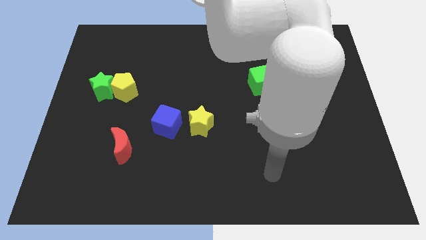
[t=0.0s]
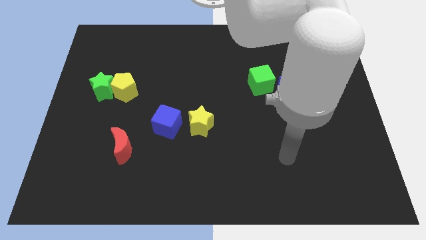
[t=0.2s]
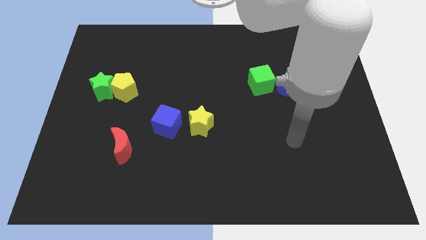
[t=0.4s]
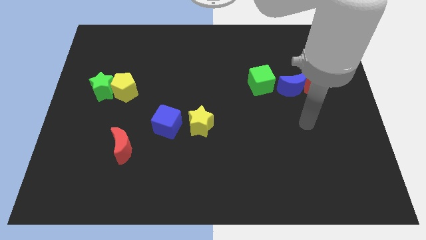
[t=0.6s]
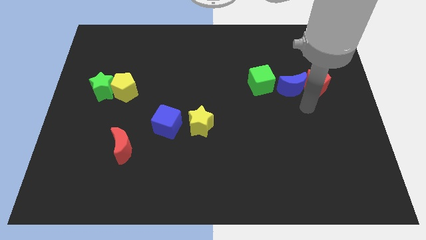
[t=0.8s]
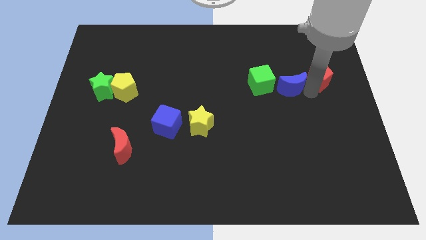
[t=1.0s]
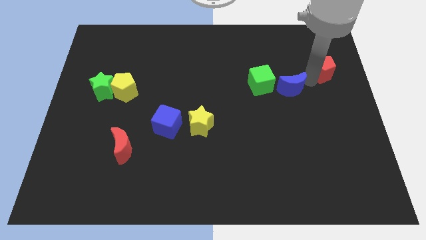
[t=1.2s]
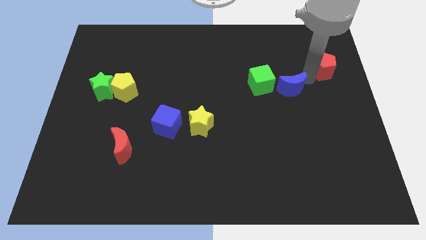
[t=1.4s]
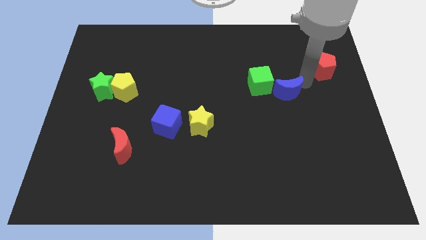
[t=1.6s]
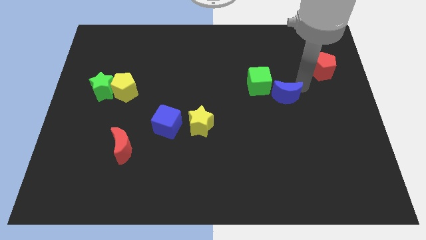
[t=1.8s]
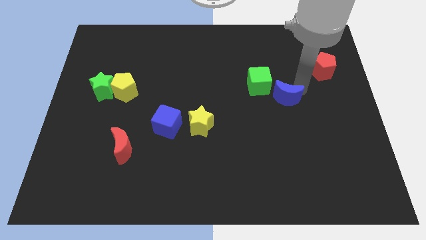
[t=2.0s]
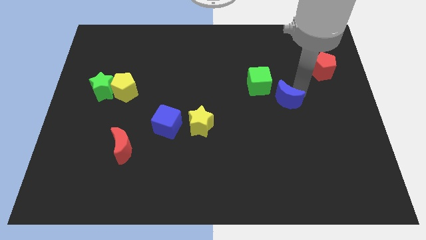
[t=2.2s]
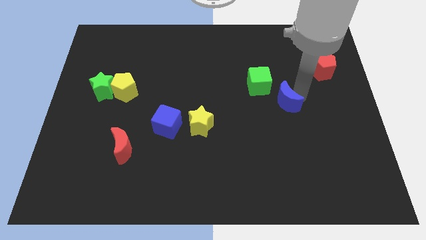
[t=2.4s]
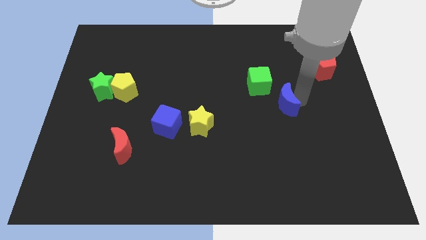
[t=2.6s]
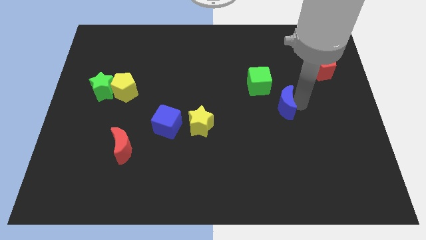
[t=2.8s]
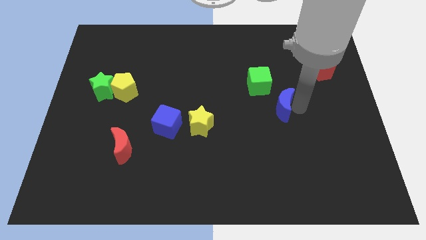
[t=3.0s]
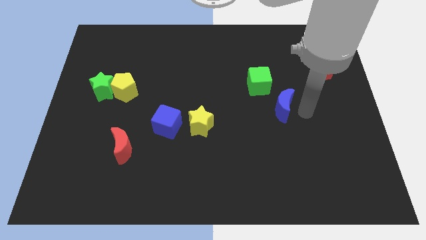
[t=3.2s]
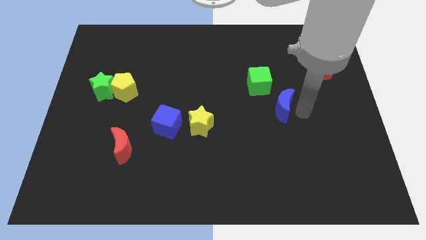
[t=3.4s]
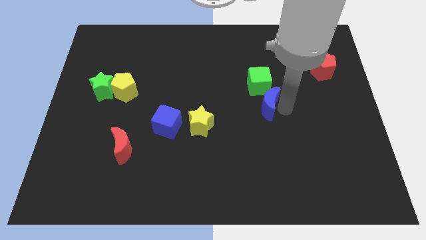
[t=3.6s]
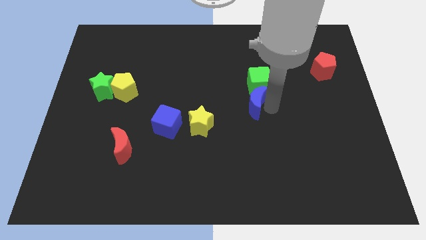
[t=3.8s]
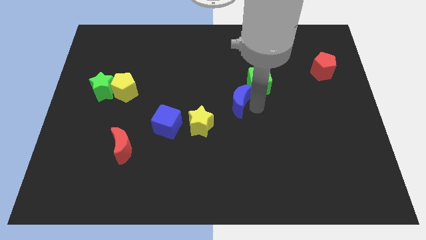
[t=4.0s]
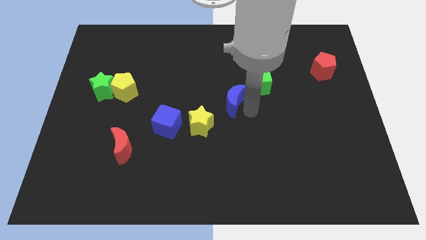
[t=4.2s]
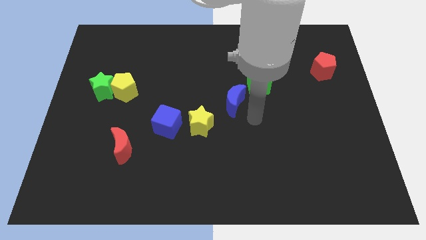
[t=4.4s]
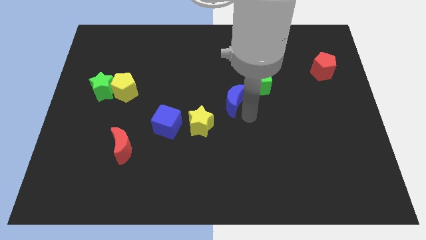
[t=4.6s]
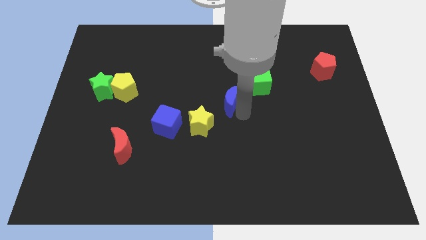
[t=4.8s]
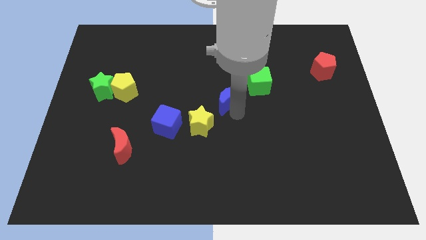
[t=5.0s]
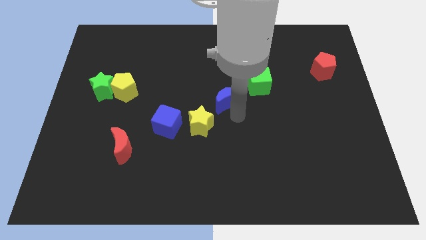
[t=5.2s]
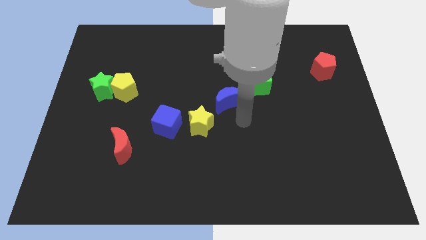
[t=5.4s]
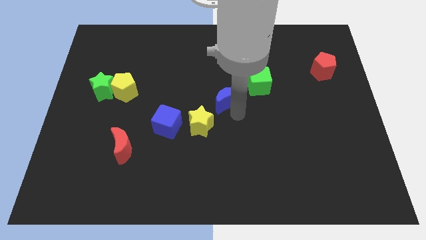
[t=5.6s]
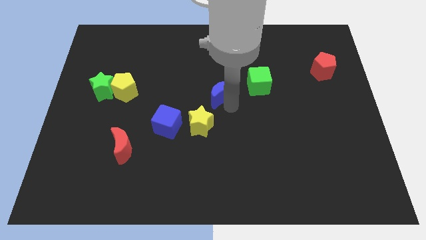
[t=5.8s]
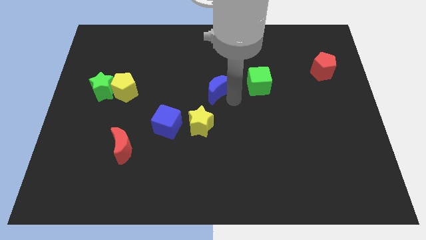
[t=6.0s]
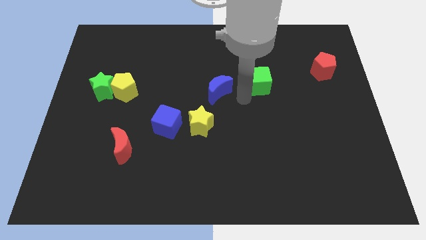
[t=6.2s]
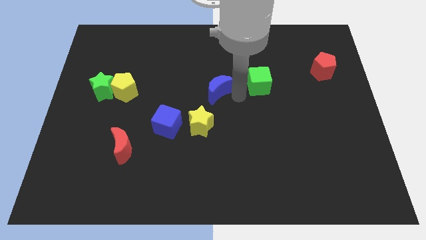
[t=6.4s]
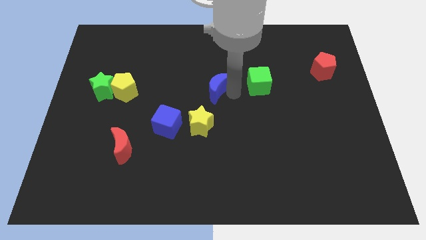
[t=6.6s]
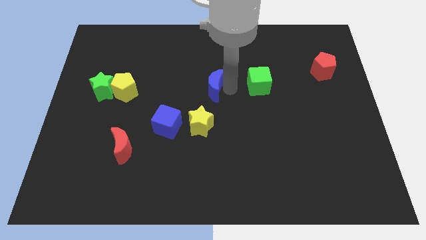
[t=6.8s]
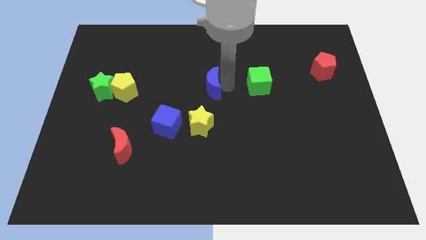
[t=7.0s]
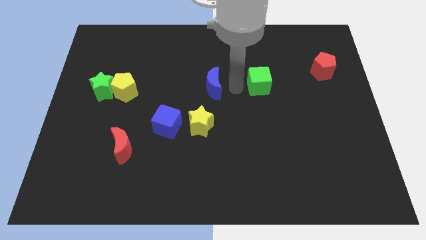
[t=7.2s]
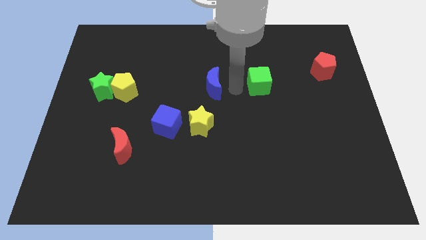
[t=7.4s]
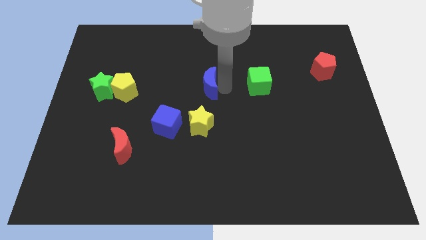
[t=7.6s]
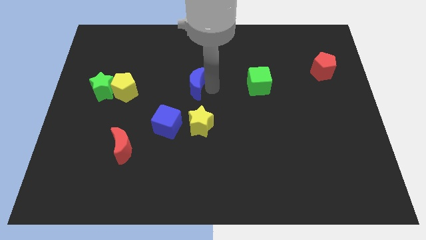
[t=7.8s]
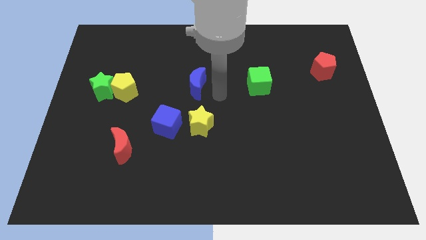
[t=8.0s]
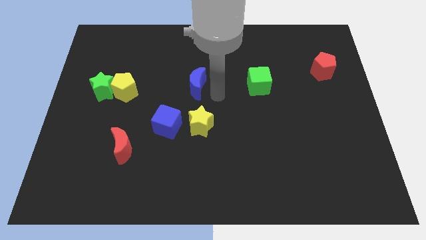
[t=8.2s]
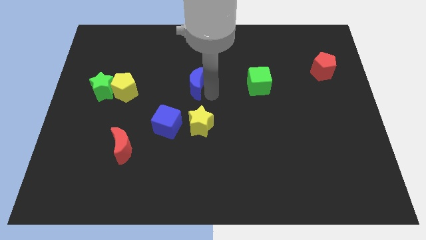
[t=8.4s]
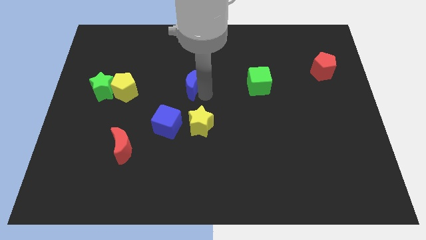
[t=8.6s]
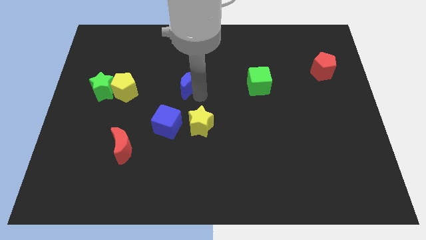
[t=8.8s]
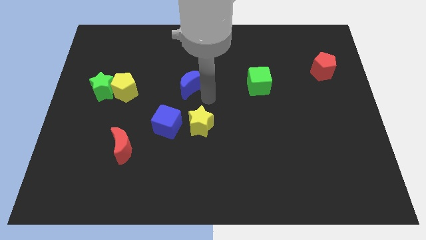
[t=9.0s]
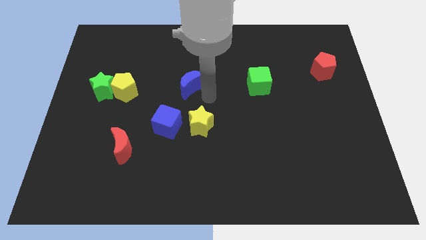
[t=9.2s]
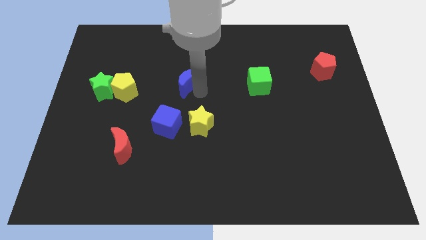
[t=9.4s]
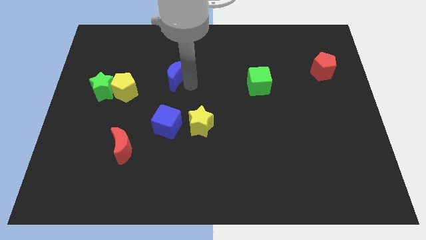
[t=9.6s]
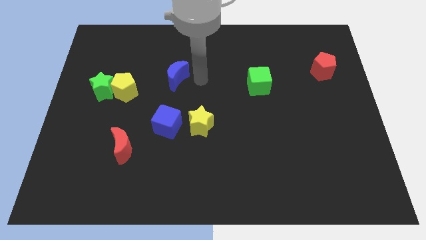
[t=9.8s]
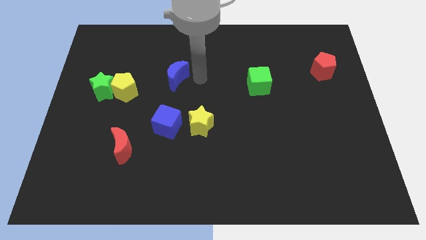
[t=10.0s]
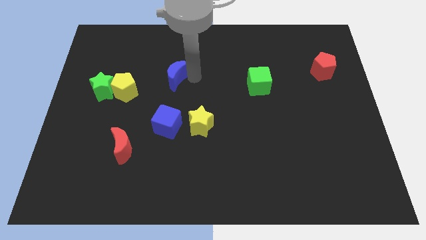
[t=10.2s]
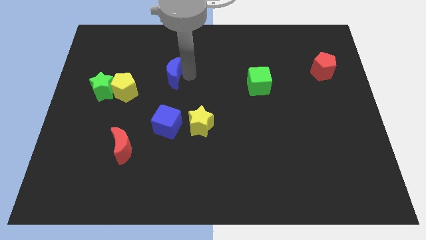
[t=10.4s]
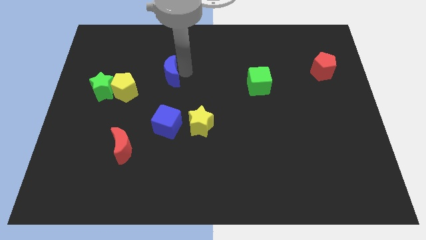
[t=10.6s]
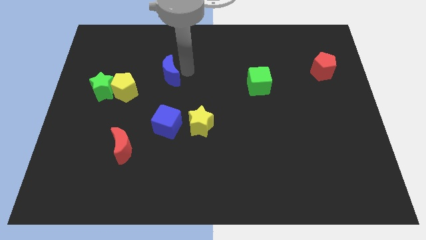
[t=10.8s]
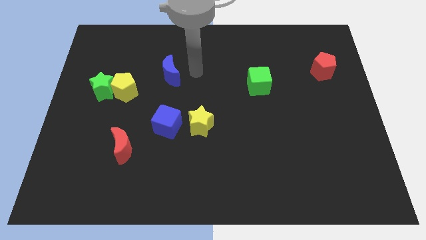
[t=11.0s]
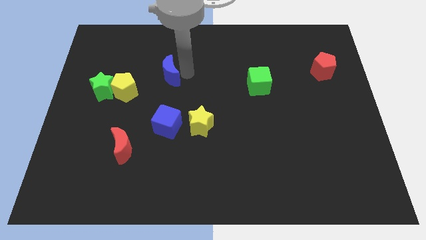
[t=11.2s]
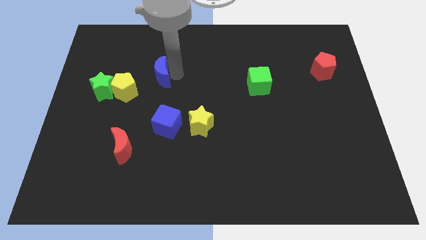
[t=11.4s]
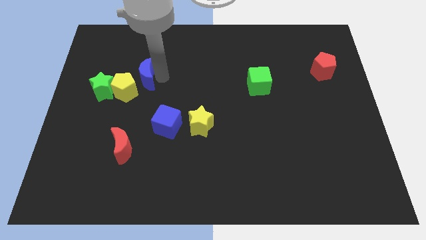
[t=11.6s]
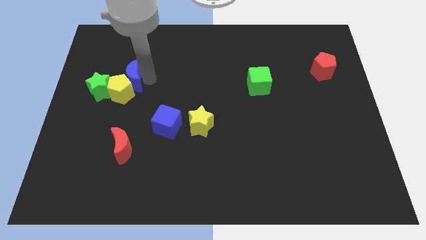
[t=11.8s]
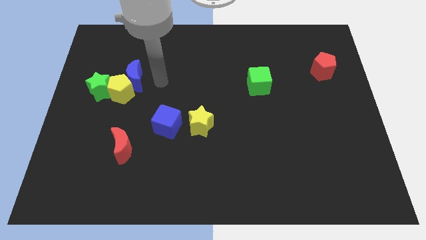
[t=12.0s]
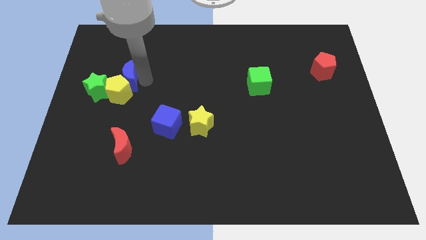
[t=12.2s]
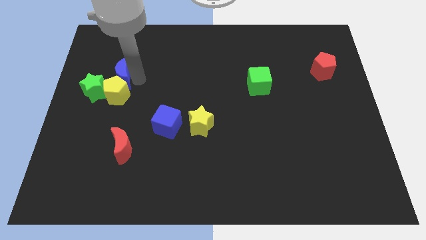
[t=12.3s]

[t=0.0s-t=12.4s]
put the blue moon to the top left of the yellow pentagon

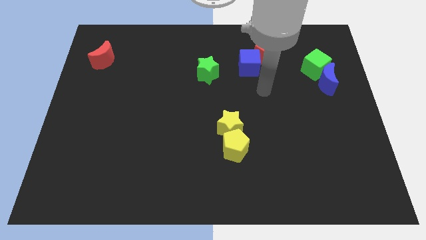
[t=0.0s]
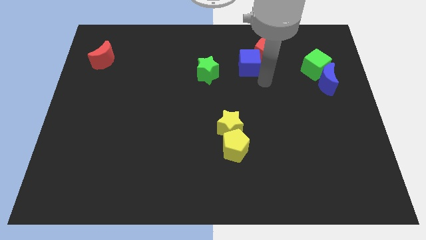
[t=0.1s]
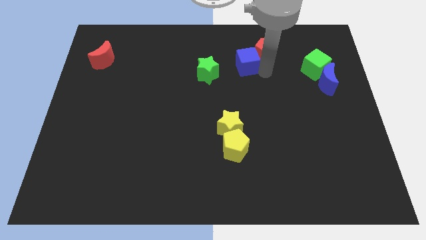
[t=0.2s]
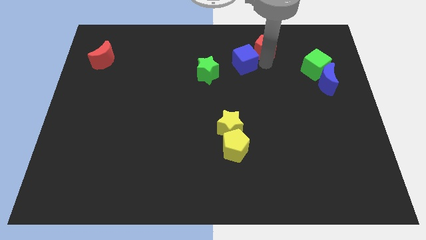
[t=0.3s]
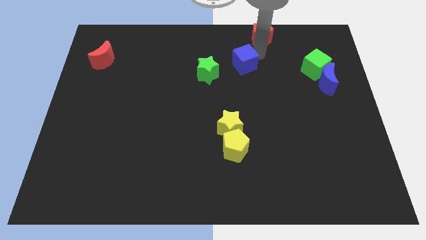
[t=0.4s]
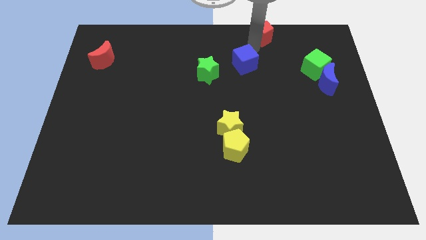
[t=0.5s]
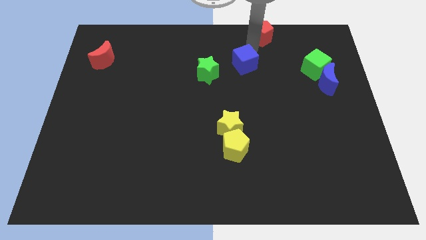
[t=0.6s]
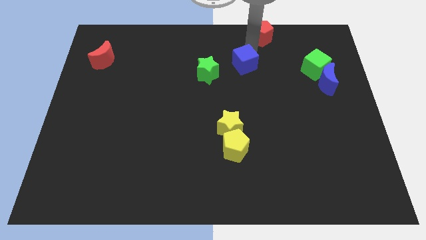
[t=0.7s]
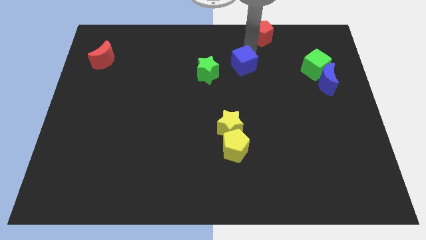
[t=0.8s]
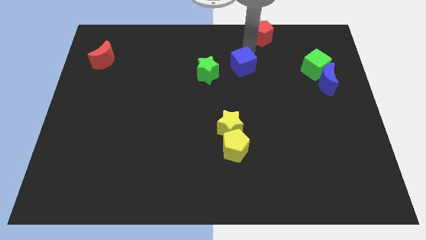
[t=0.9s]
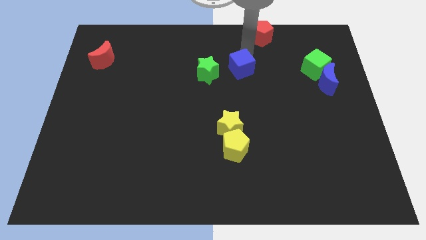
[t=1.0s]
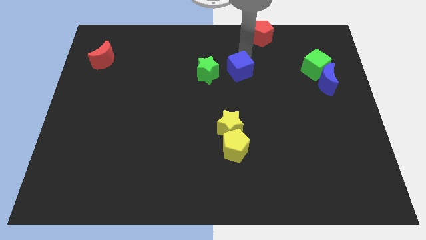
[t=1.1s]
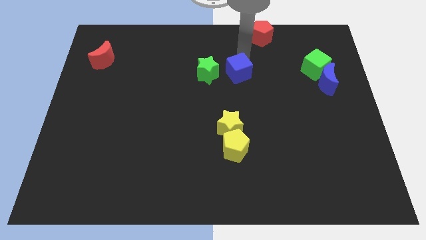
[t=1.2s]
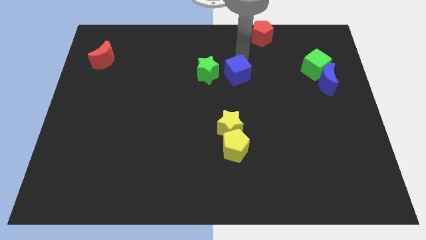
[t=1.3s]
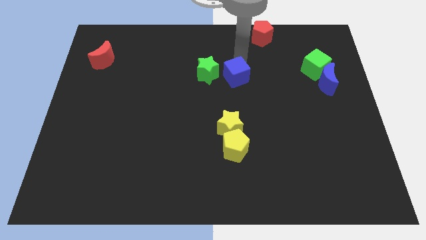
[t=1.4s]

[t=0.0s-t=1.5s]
move the blue cube to the bottom right of the green star
